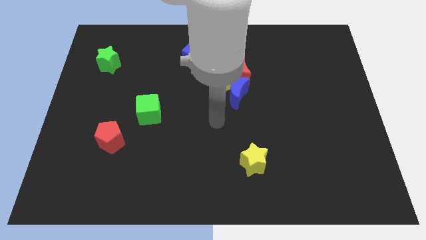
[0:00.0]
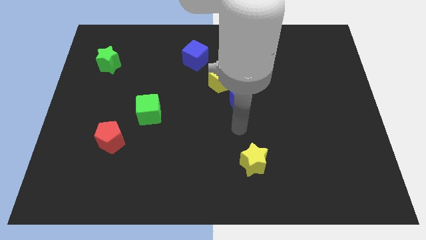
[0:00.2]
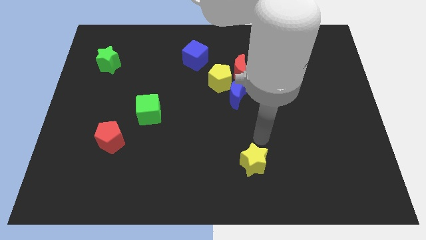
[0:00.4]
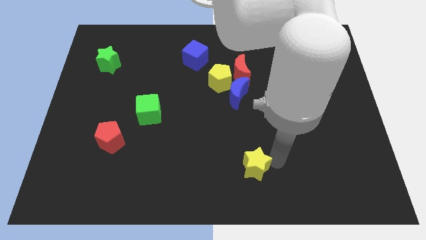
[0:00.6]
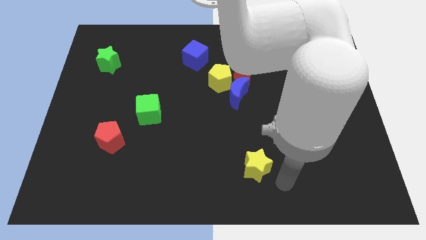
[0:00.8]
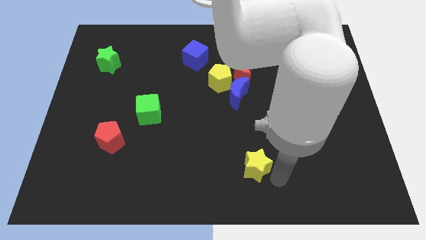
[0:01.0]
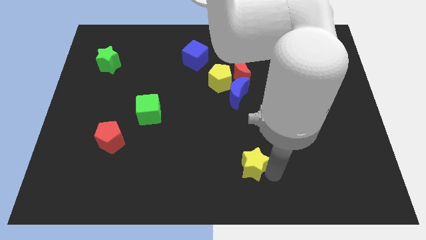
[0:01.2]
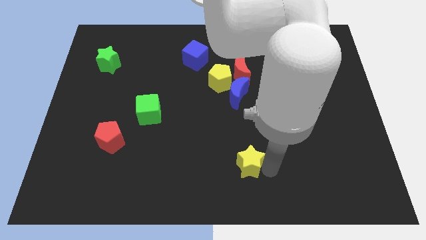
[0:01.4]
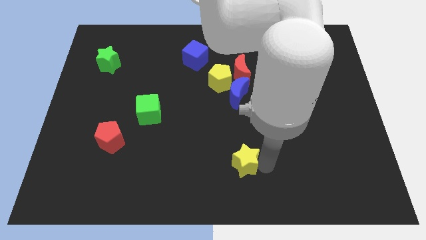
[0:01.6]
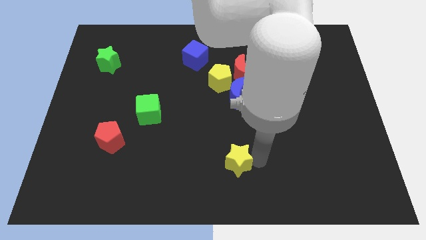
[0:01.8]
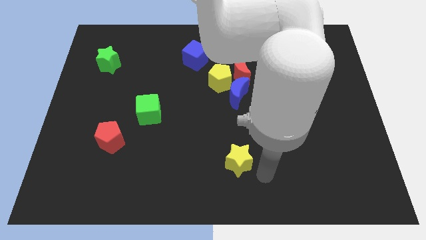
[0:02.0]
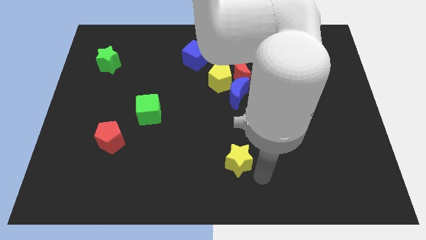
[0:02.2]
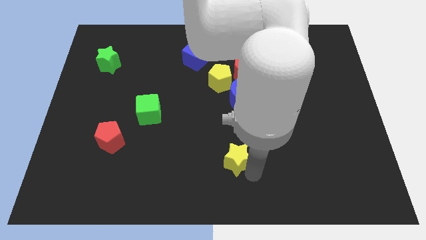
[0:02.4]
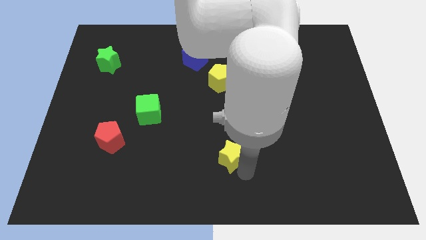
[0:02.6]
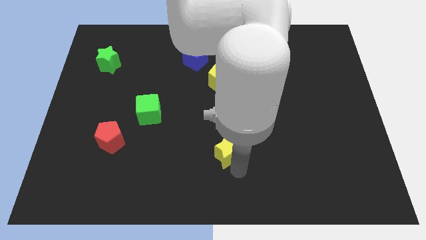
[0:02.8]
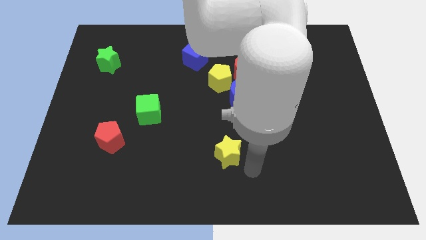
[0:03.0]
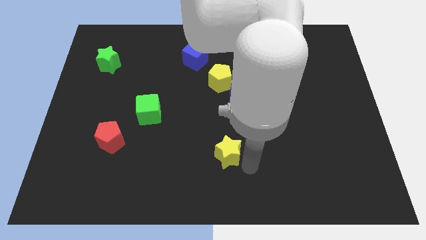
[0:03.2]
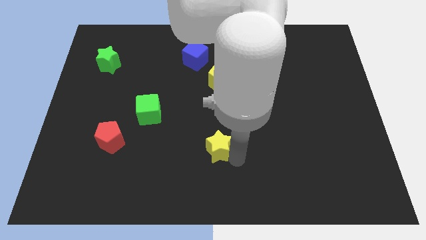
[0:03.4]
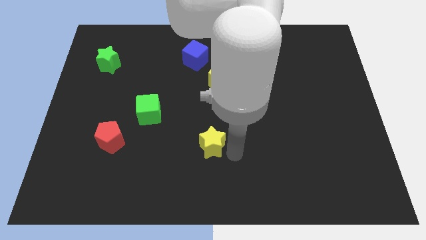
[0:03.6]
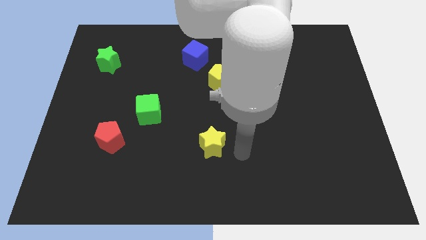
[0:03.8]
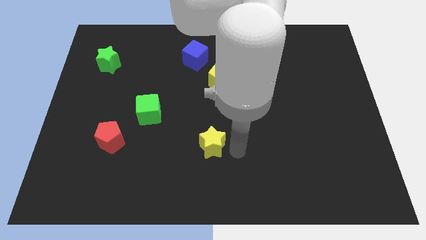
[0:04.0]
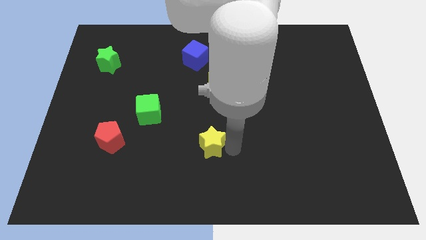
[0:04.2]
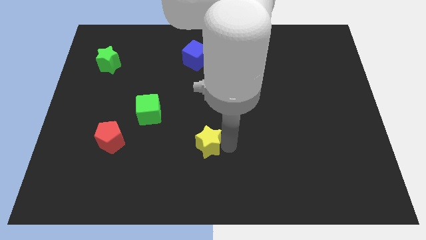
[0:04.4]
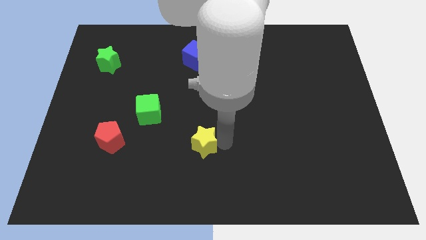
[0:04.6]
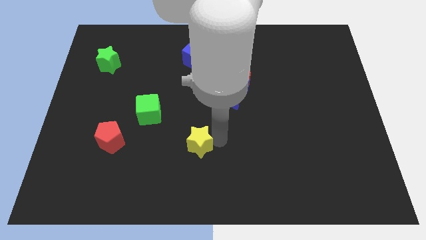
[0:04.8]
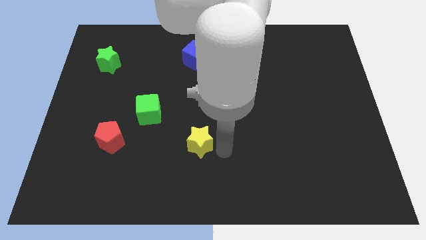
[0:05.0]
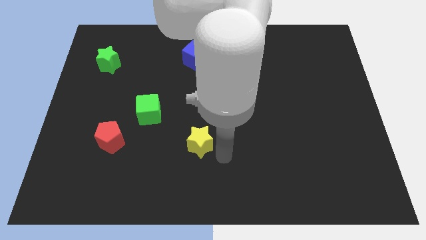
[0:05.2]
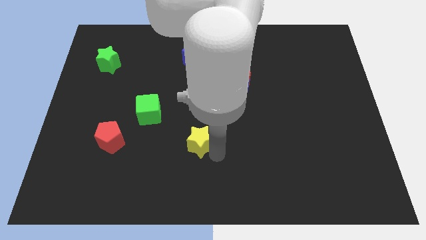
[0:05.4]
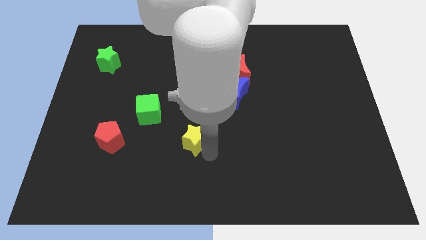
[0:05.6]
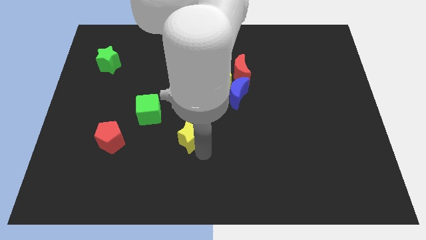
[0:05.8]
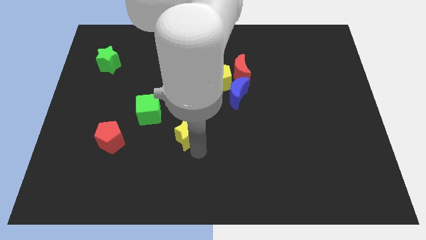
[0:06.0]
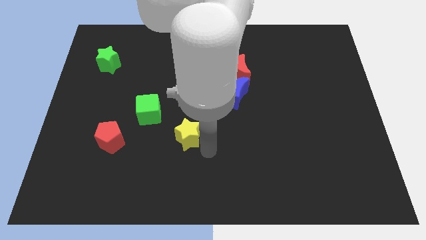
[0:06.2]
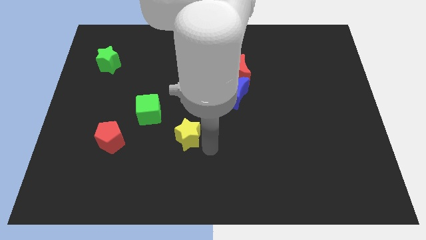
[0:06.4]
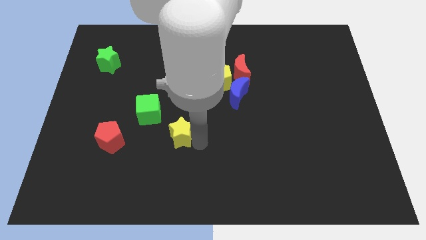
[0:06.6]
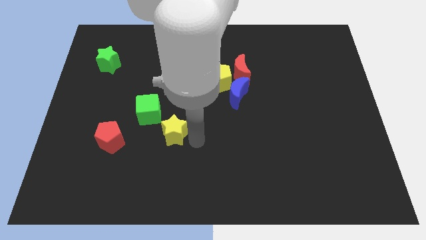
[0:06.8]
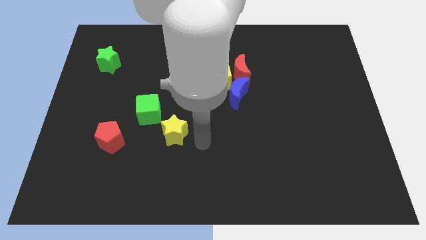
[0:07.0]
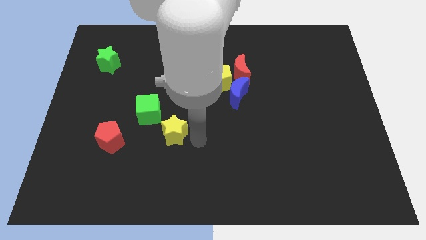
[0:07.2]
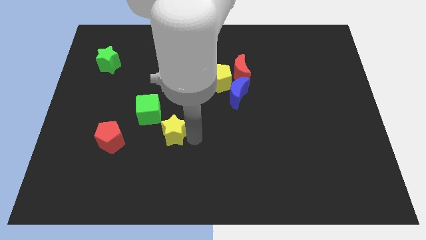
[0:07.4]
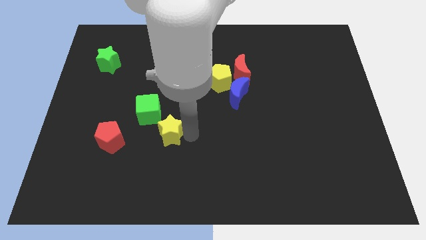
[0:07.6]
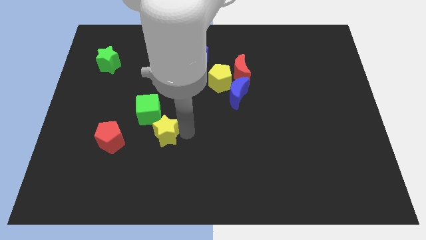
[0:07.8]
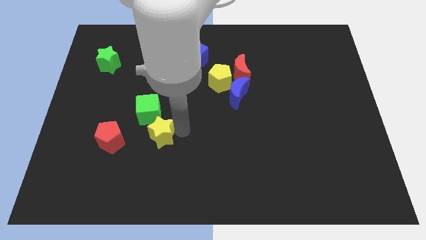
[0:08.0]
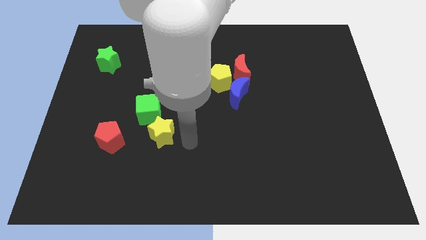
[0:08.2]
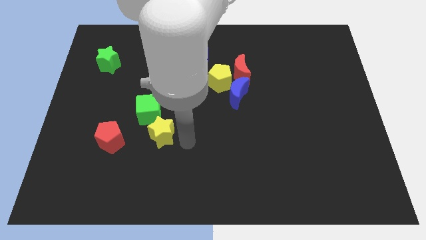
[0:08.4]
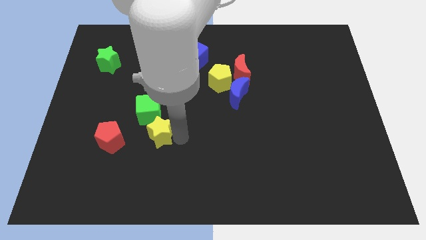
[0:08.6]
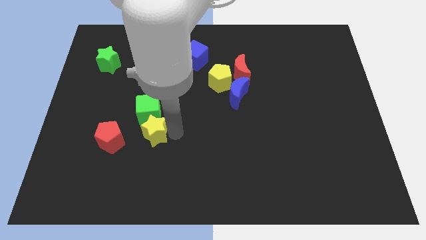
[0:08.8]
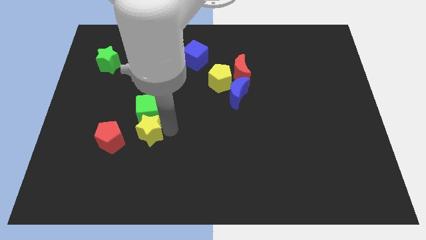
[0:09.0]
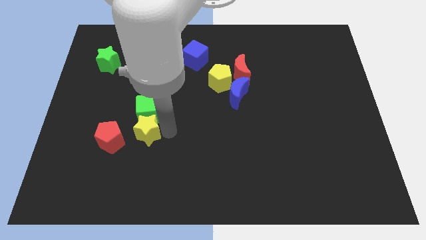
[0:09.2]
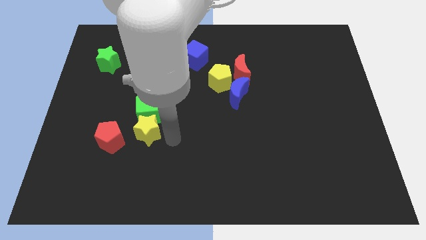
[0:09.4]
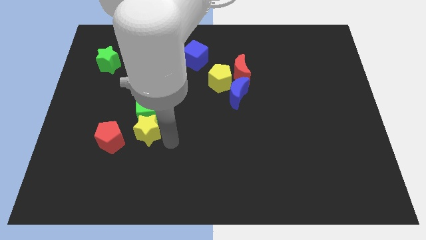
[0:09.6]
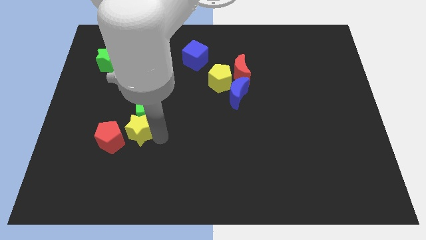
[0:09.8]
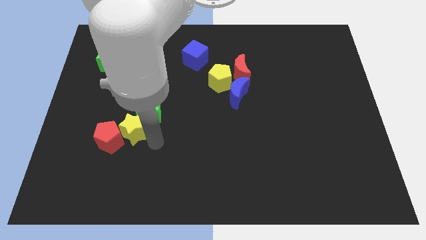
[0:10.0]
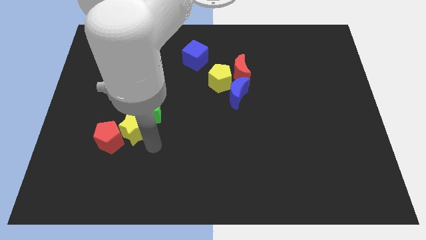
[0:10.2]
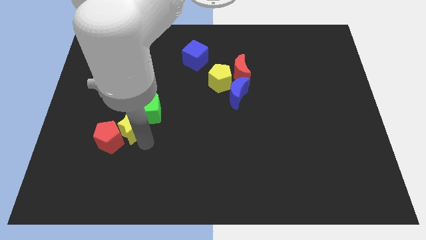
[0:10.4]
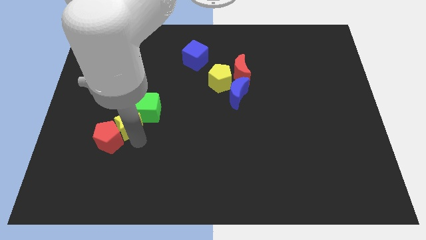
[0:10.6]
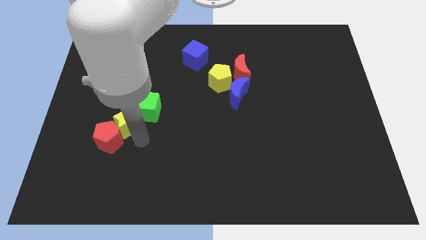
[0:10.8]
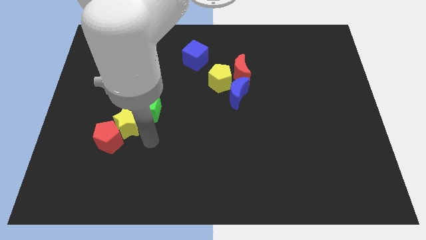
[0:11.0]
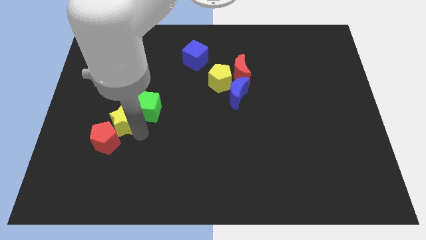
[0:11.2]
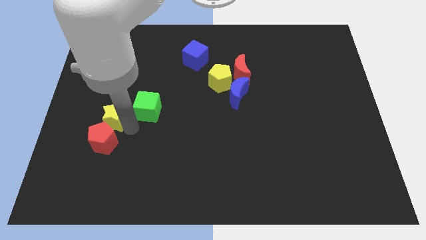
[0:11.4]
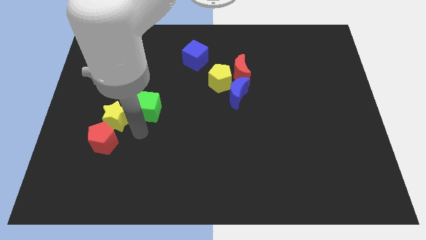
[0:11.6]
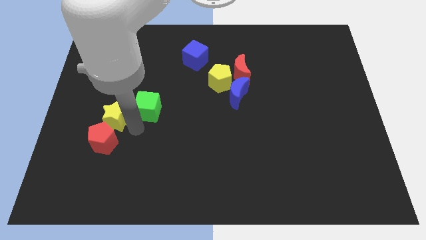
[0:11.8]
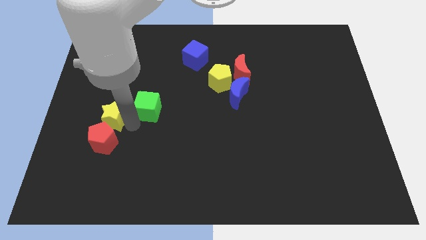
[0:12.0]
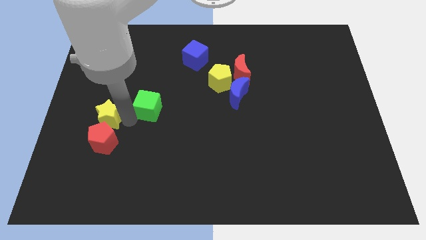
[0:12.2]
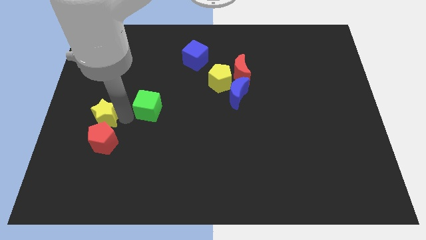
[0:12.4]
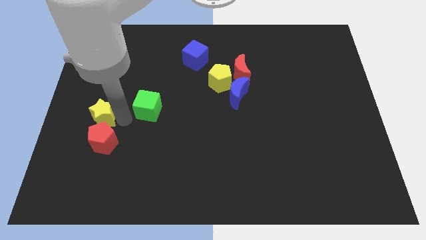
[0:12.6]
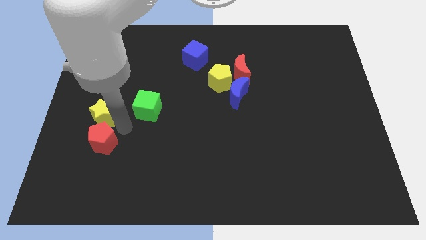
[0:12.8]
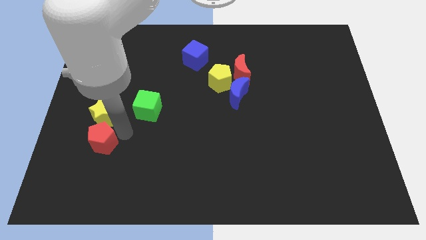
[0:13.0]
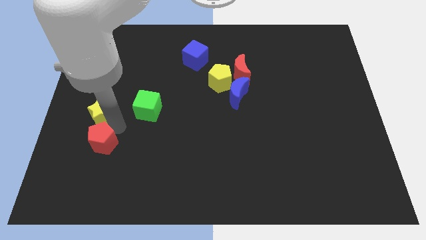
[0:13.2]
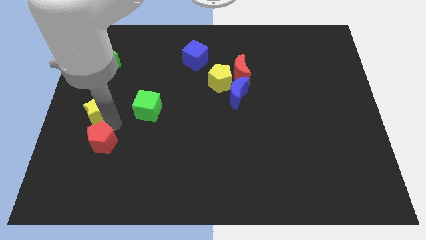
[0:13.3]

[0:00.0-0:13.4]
push the yellow star to the left side of the board
